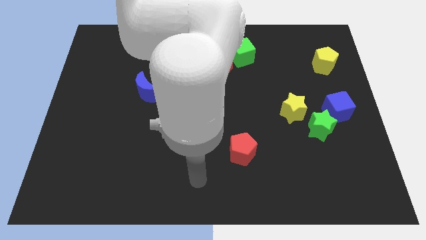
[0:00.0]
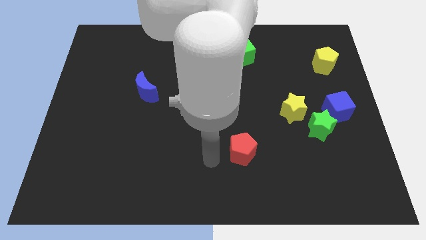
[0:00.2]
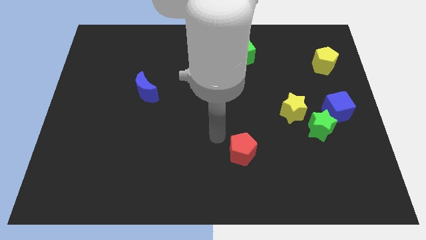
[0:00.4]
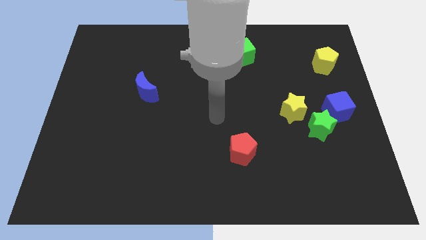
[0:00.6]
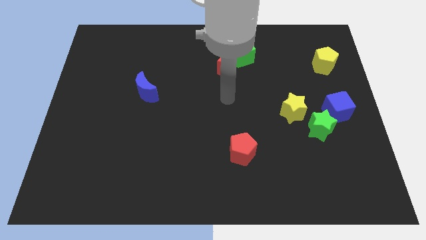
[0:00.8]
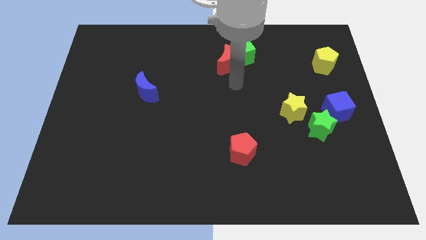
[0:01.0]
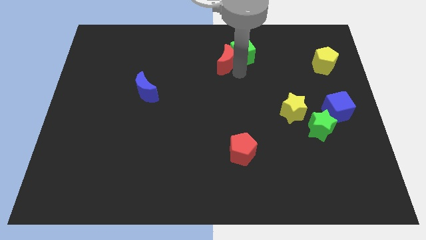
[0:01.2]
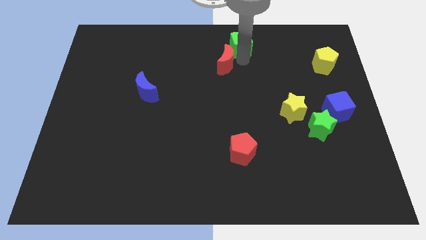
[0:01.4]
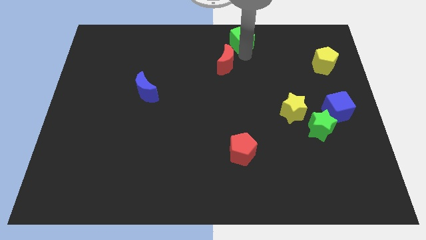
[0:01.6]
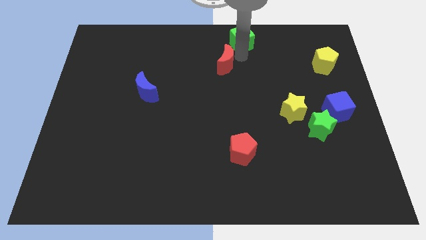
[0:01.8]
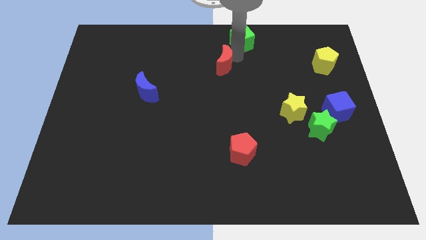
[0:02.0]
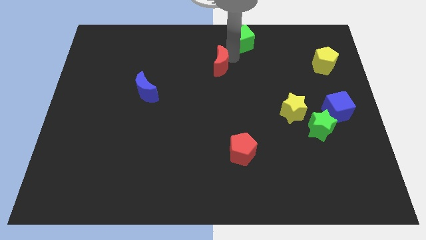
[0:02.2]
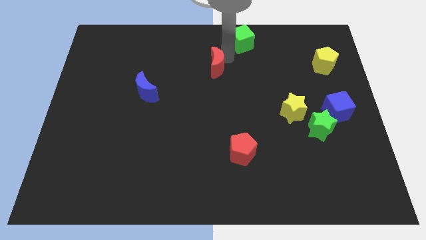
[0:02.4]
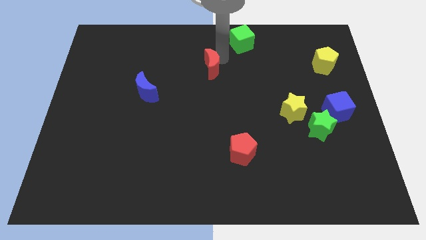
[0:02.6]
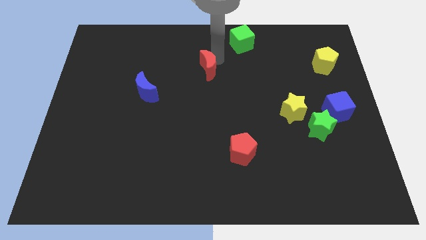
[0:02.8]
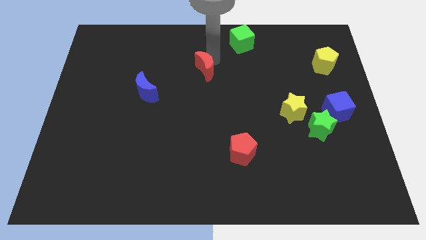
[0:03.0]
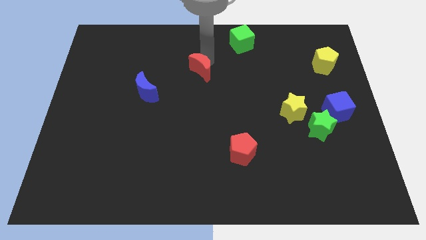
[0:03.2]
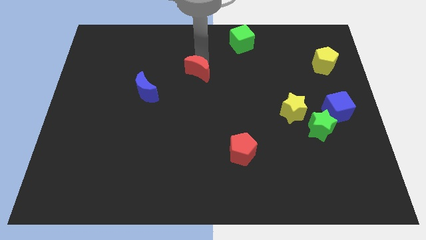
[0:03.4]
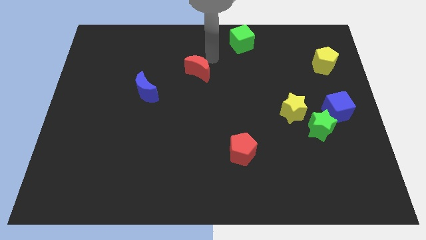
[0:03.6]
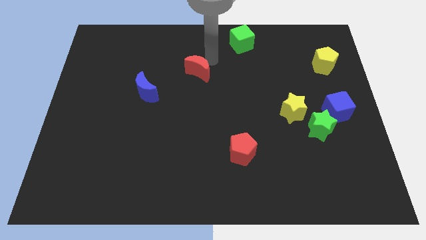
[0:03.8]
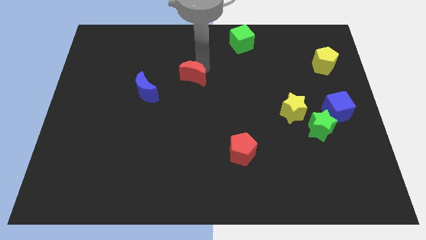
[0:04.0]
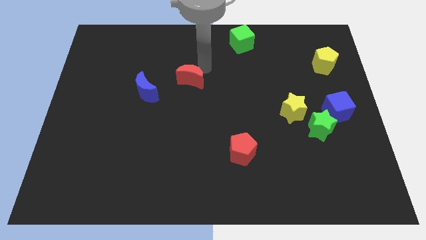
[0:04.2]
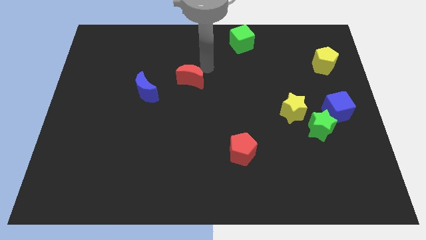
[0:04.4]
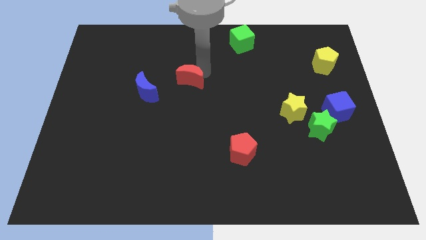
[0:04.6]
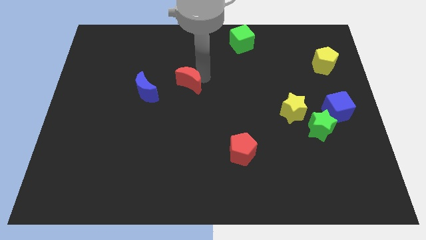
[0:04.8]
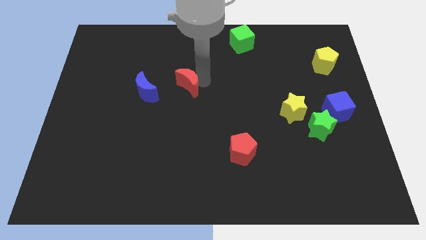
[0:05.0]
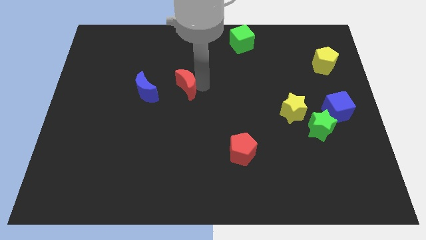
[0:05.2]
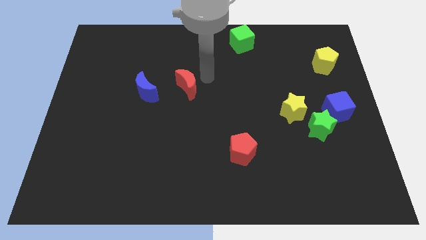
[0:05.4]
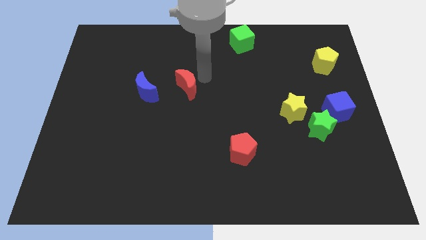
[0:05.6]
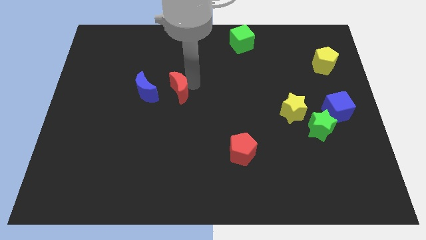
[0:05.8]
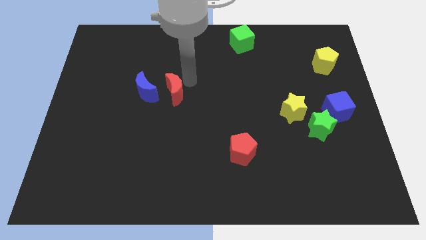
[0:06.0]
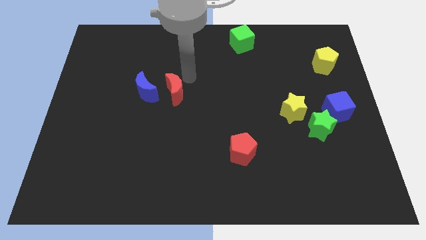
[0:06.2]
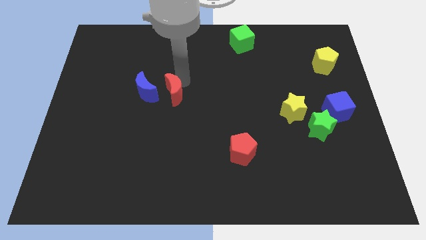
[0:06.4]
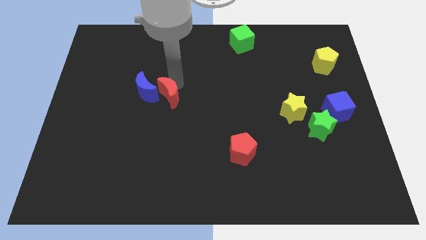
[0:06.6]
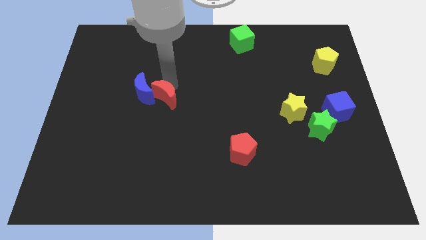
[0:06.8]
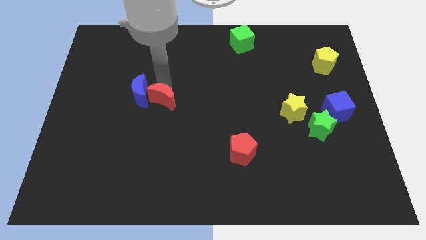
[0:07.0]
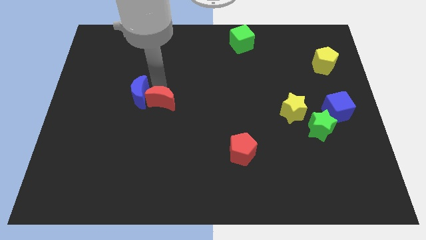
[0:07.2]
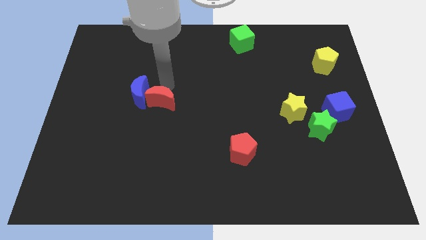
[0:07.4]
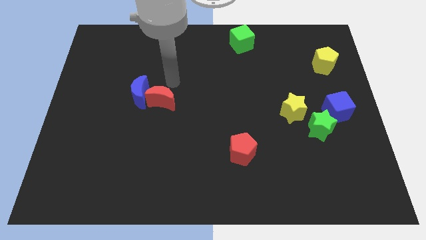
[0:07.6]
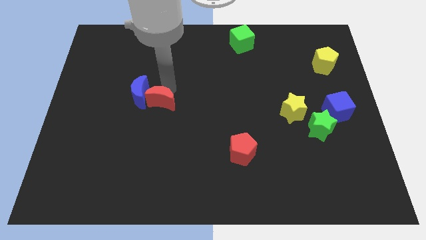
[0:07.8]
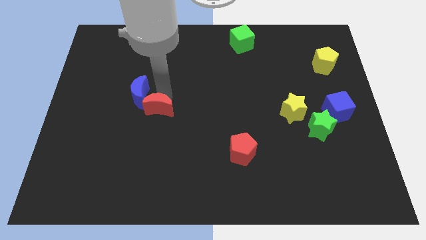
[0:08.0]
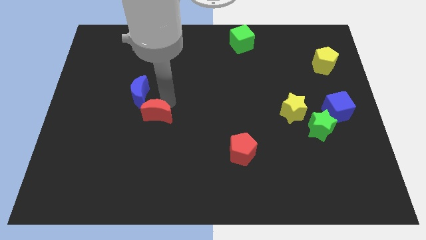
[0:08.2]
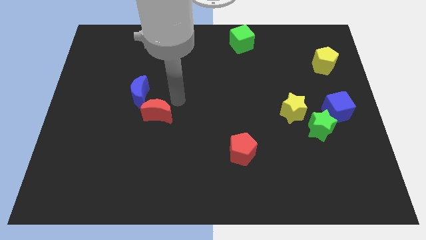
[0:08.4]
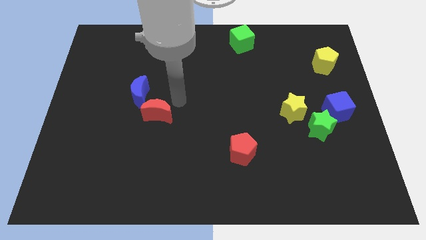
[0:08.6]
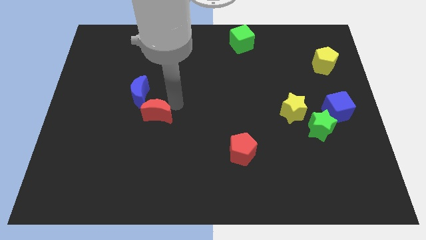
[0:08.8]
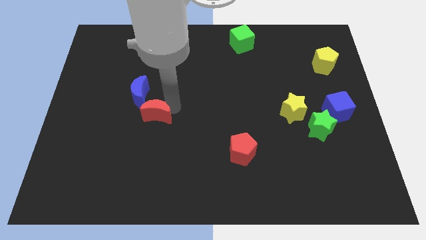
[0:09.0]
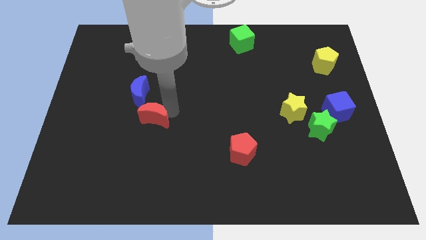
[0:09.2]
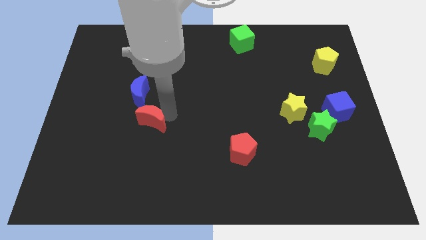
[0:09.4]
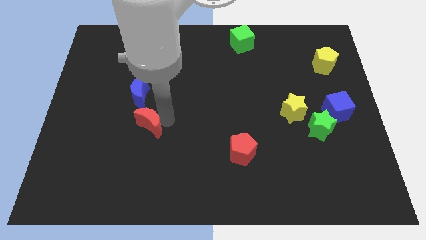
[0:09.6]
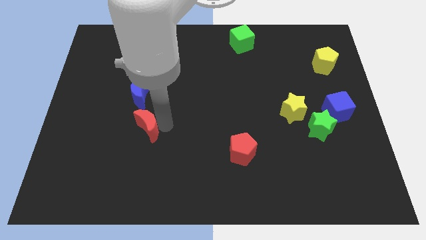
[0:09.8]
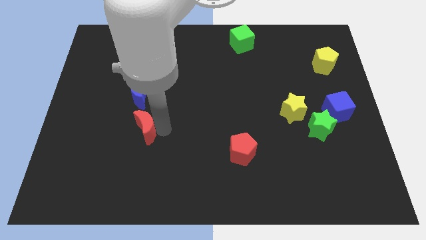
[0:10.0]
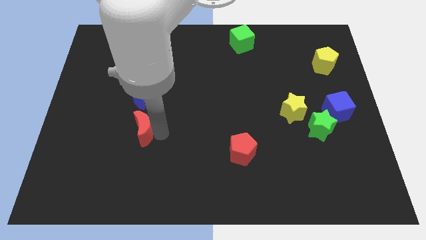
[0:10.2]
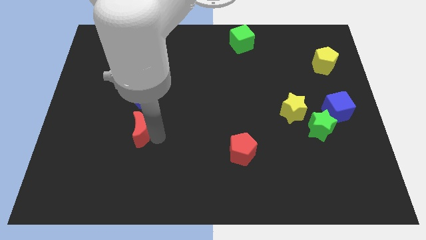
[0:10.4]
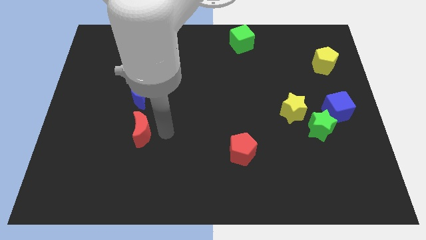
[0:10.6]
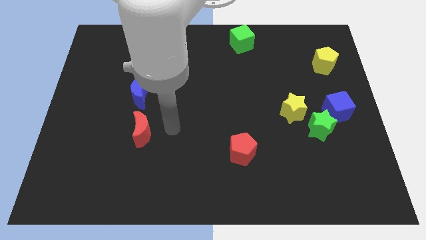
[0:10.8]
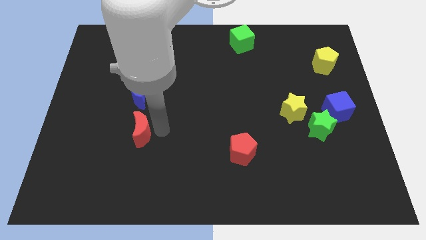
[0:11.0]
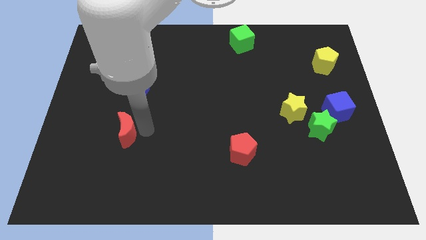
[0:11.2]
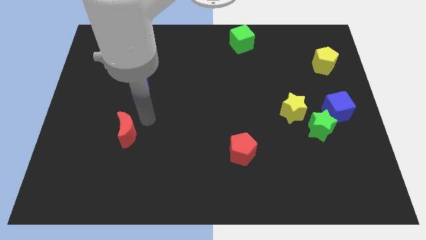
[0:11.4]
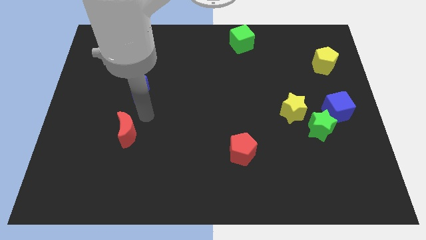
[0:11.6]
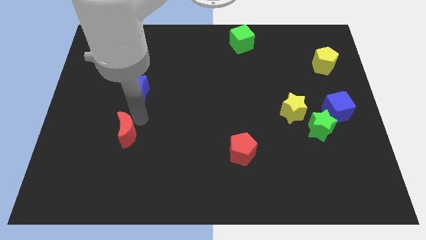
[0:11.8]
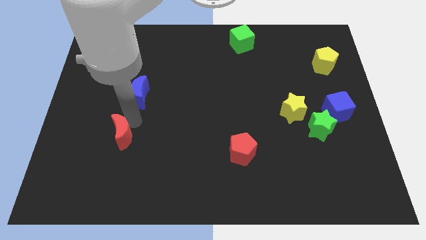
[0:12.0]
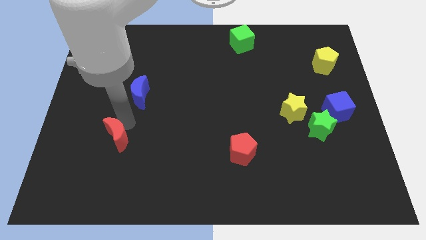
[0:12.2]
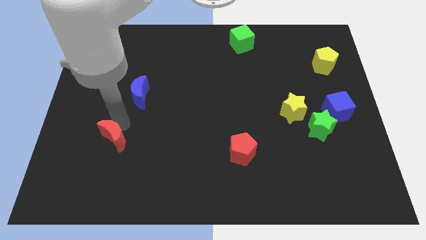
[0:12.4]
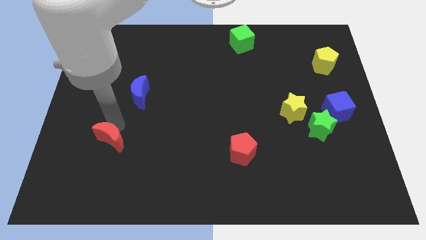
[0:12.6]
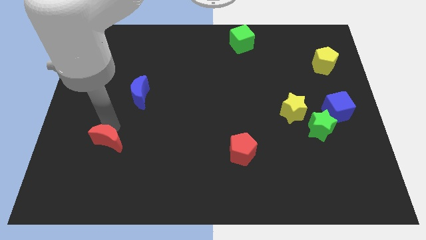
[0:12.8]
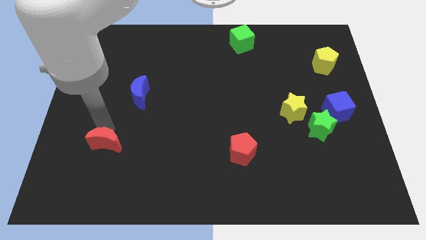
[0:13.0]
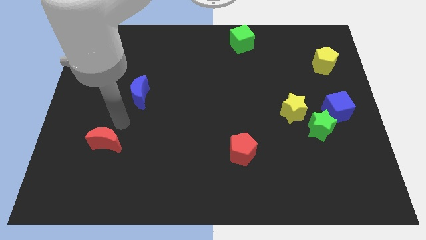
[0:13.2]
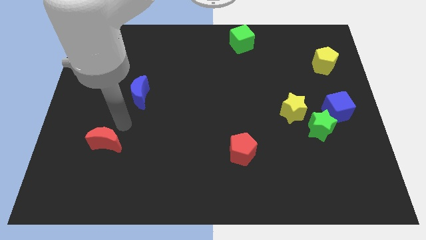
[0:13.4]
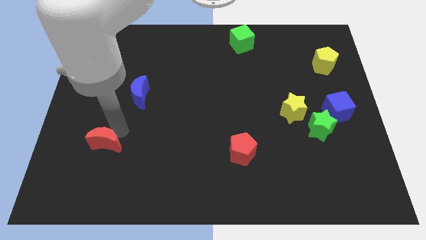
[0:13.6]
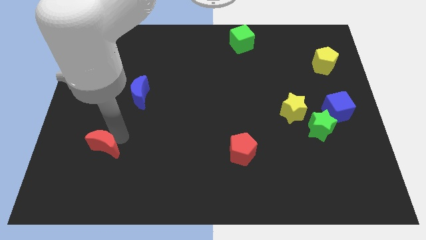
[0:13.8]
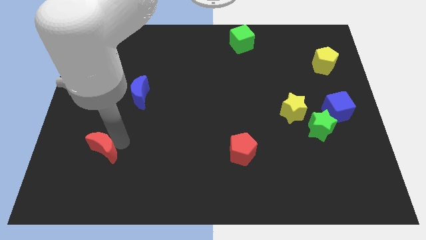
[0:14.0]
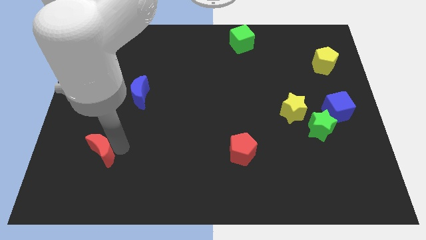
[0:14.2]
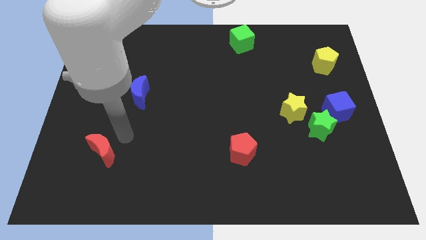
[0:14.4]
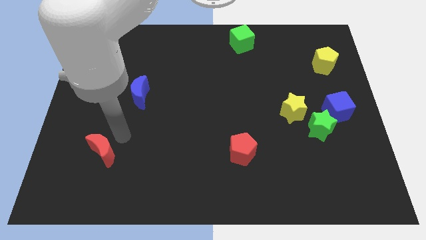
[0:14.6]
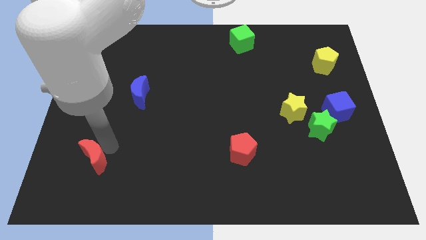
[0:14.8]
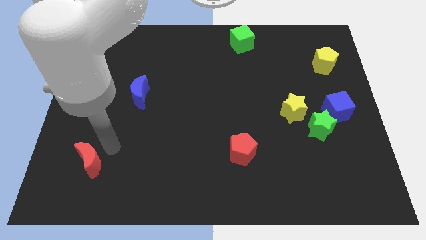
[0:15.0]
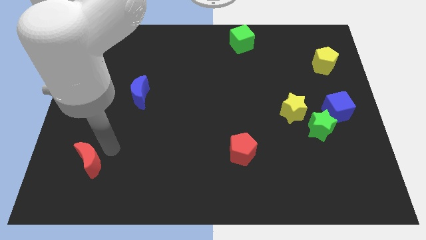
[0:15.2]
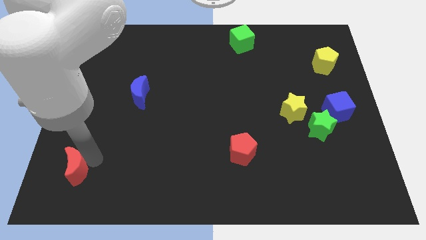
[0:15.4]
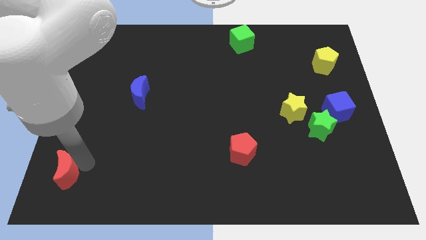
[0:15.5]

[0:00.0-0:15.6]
move the red moon to the bottom left of the board
